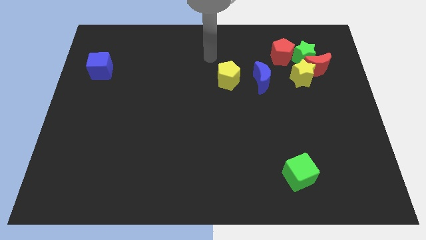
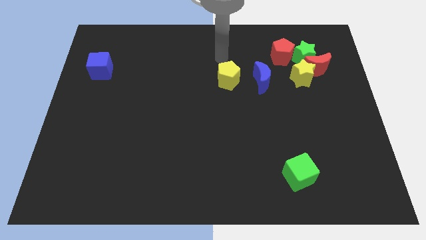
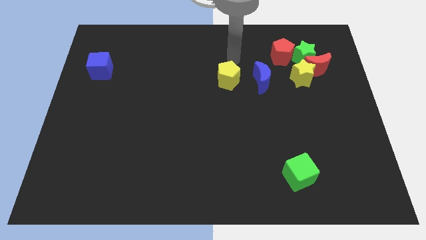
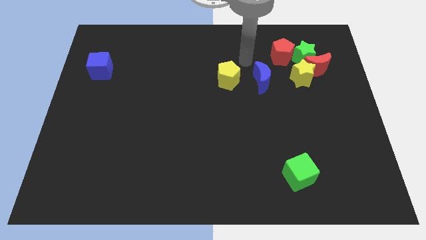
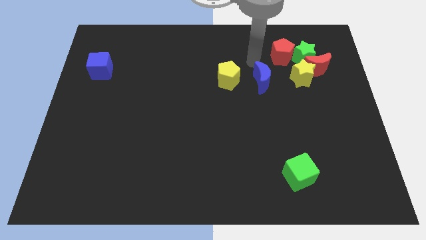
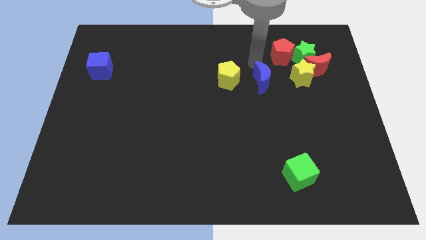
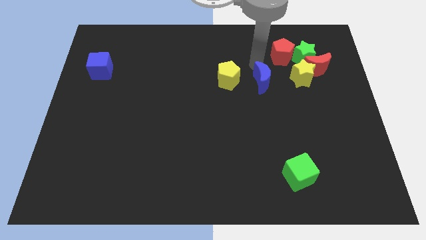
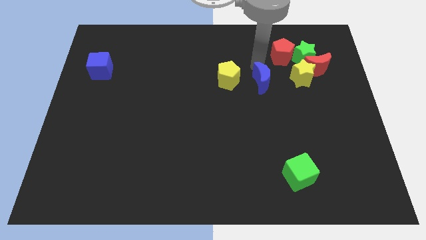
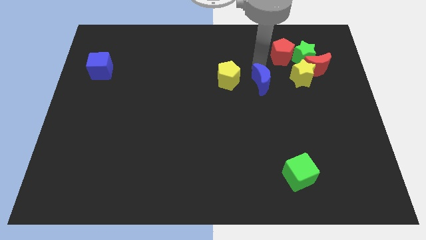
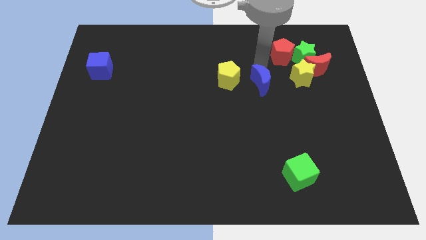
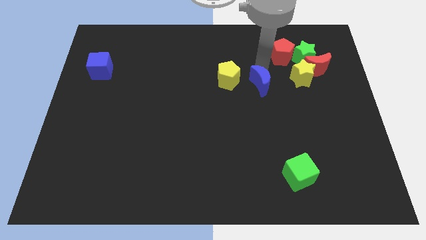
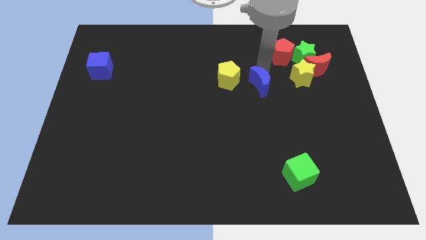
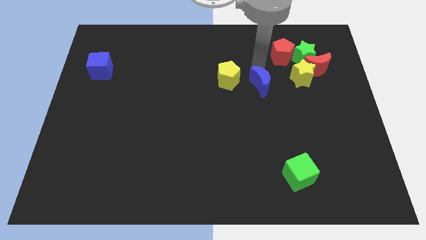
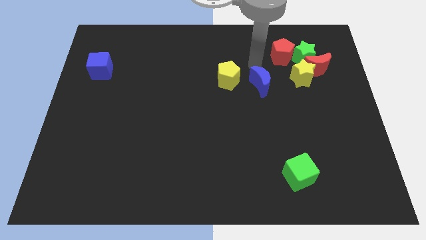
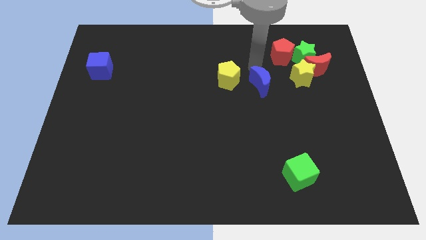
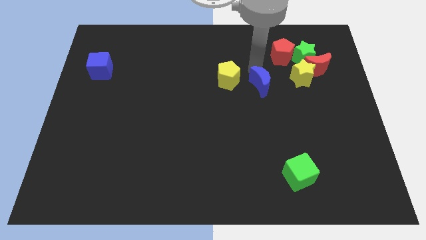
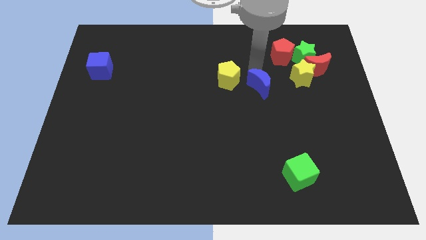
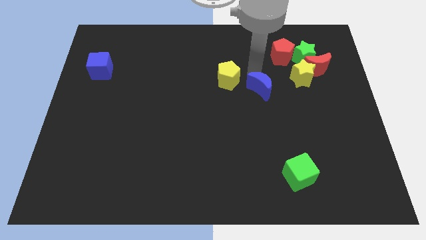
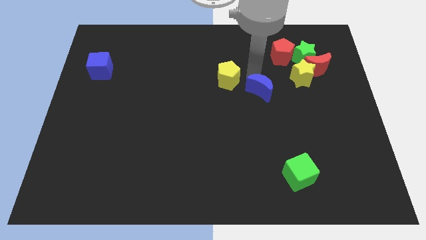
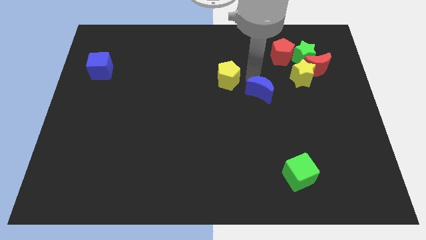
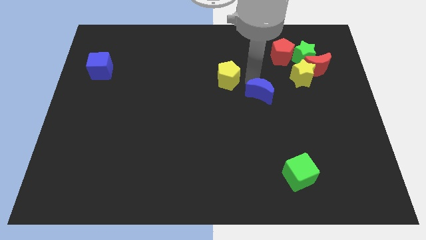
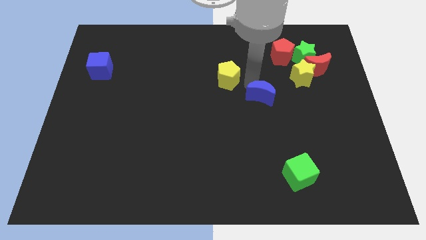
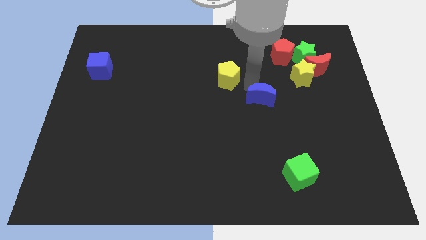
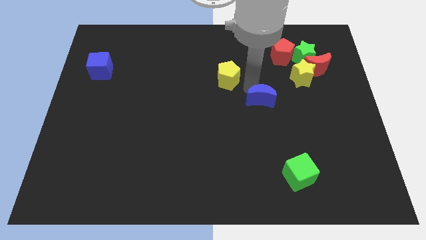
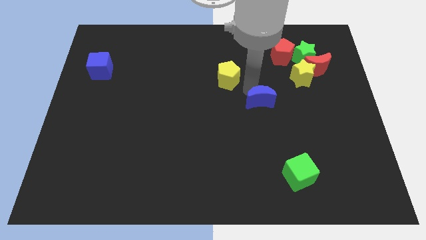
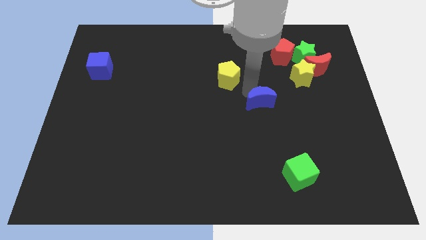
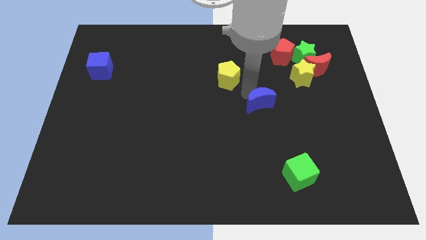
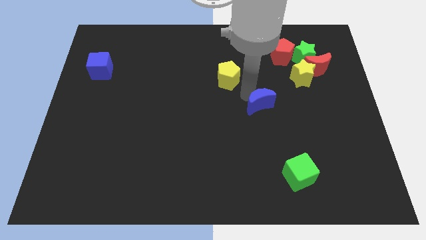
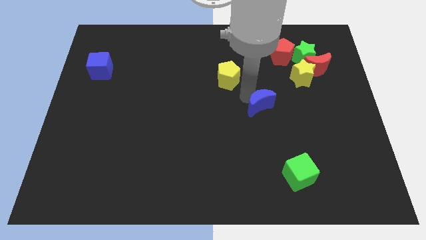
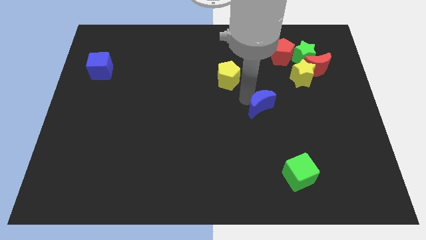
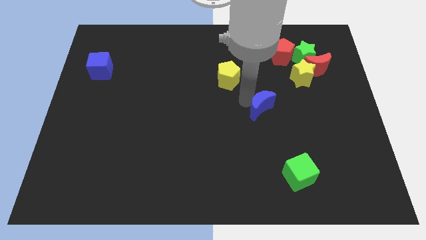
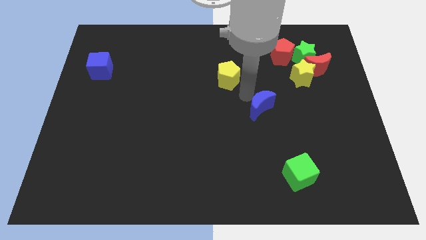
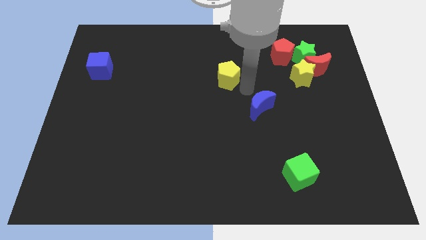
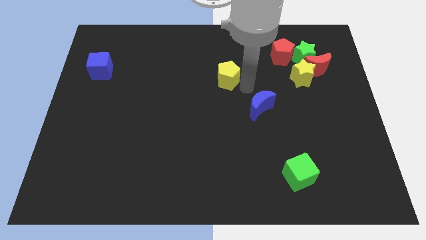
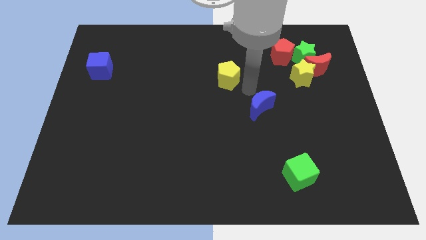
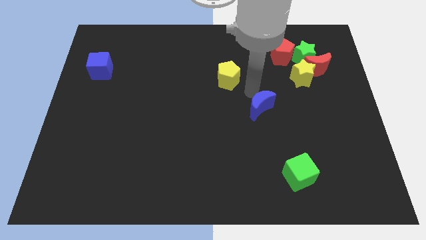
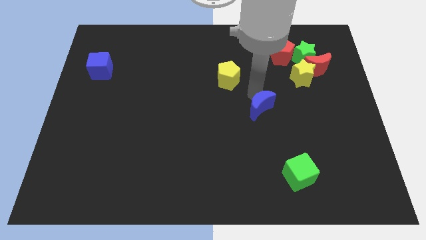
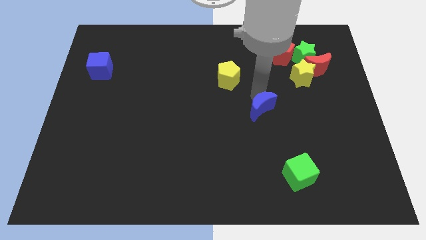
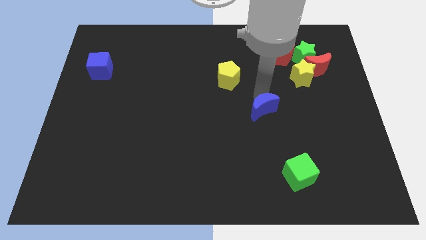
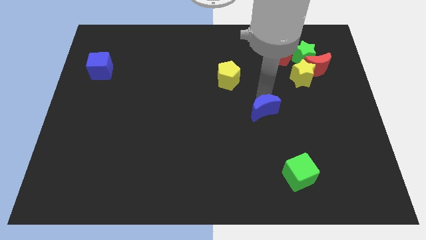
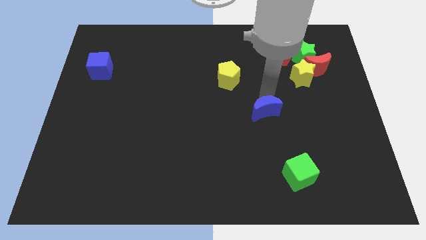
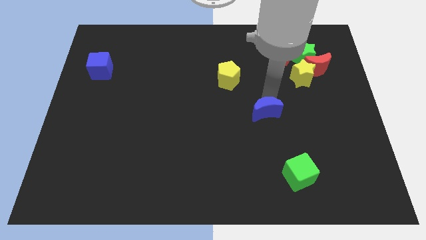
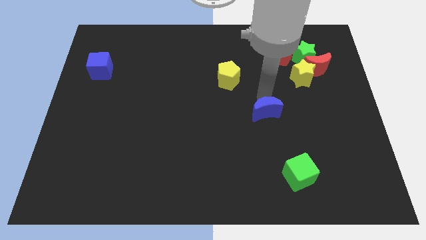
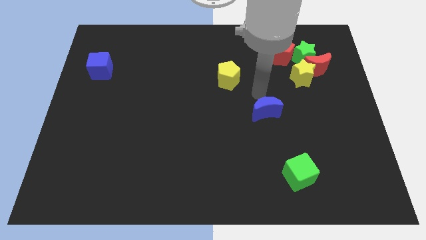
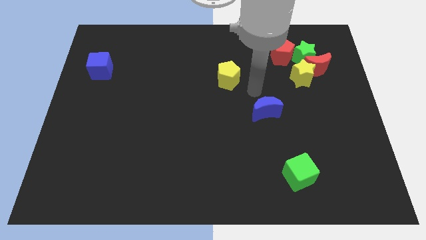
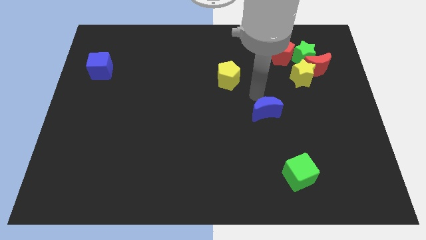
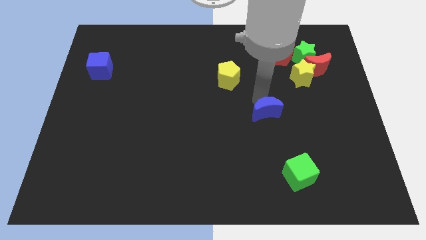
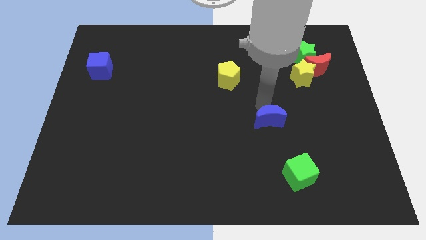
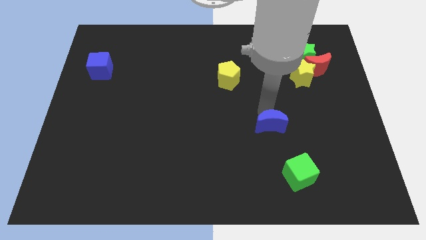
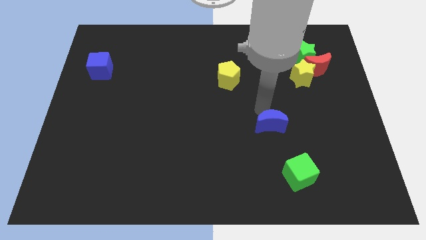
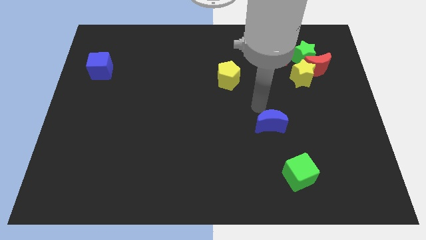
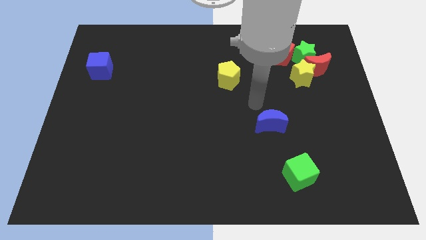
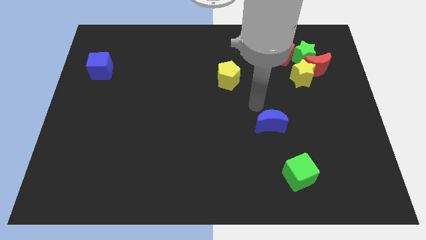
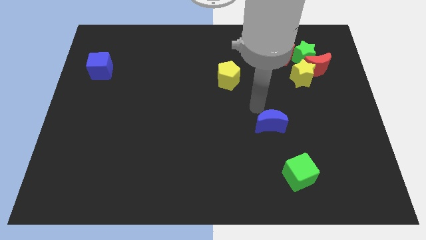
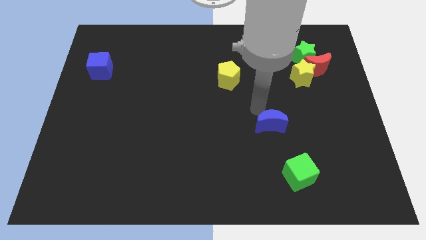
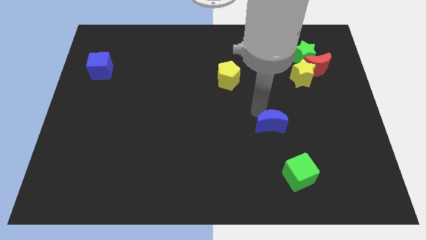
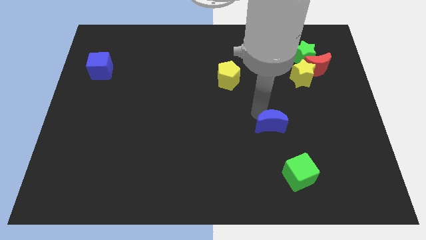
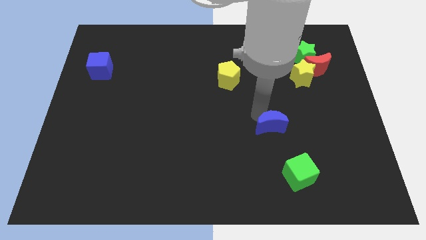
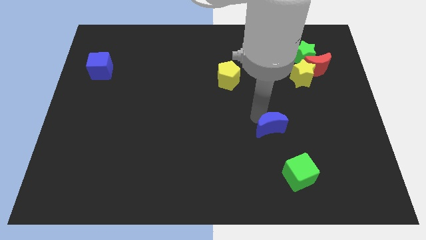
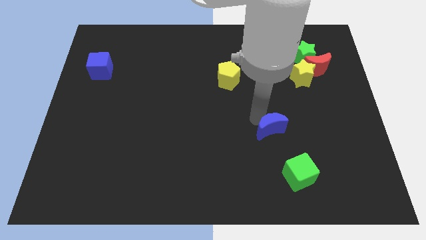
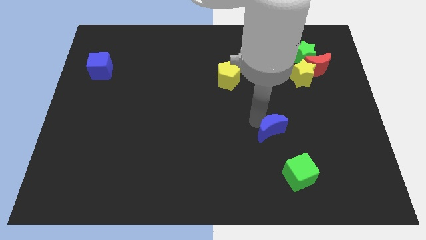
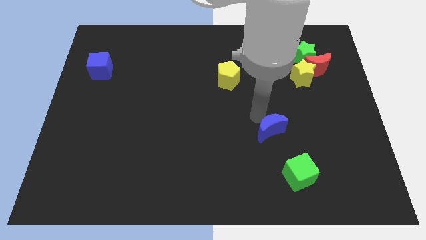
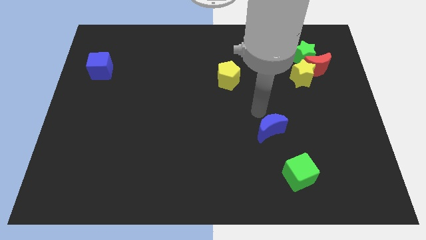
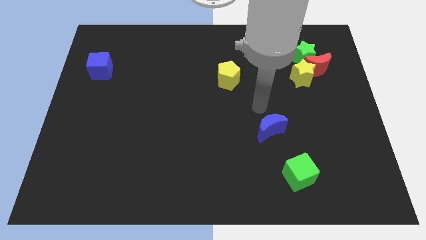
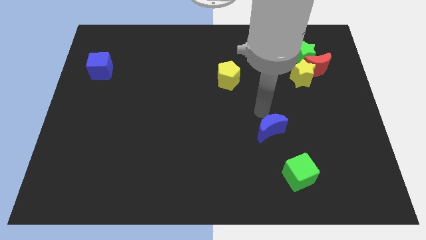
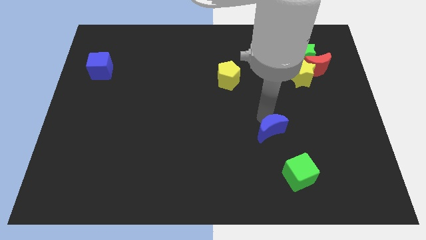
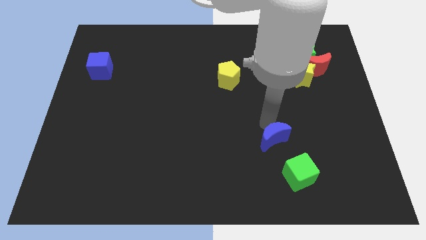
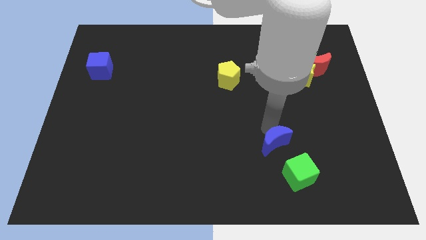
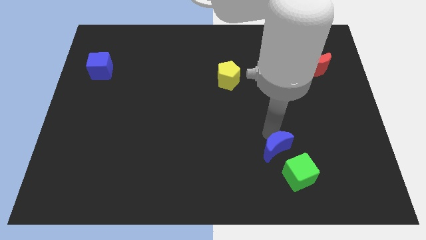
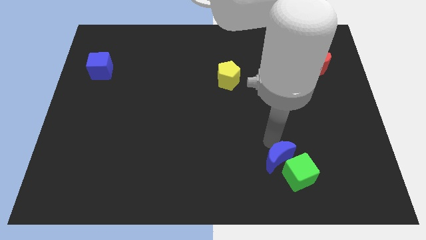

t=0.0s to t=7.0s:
slide the blue moon towards the green cube

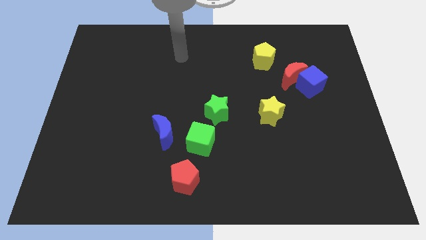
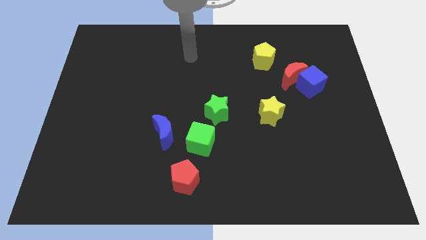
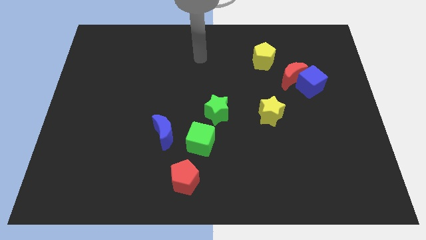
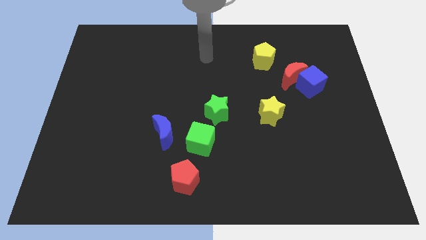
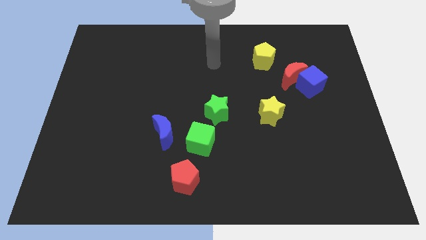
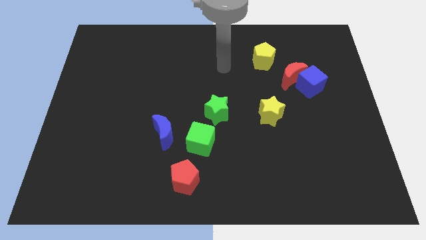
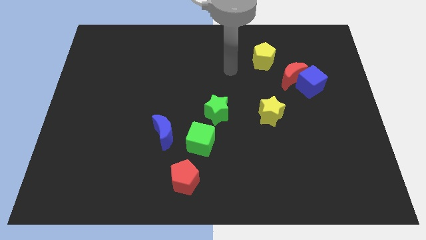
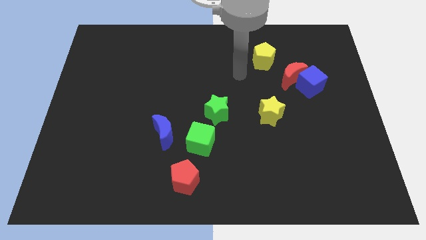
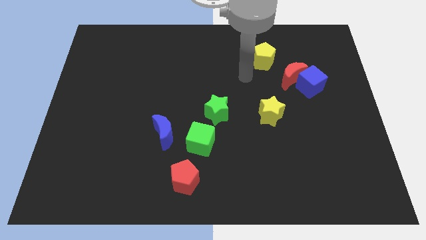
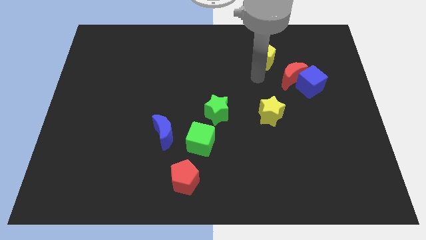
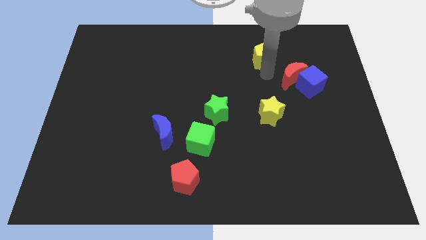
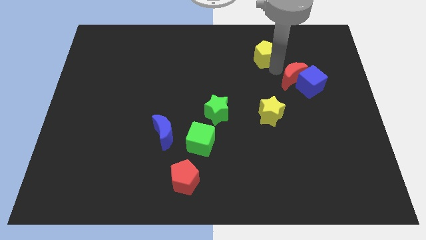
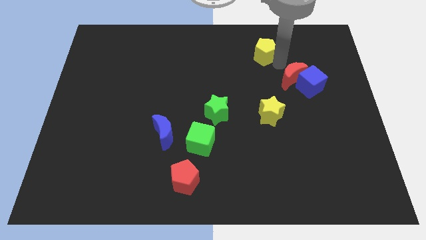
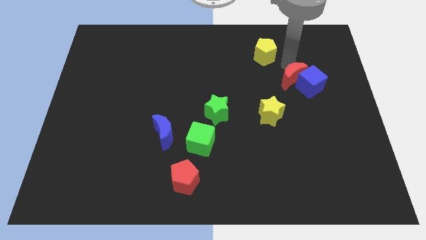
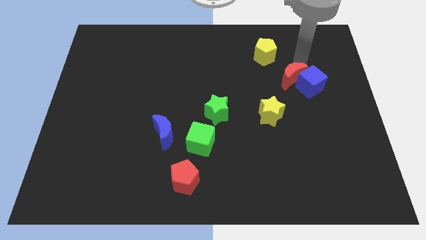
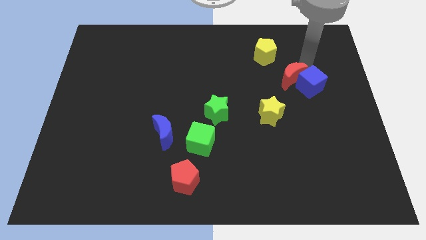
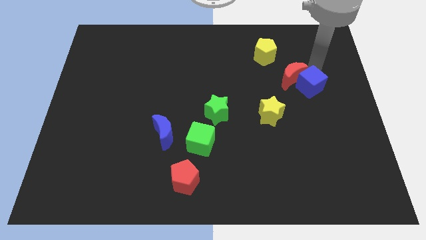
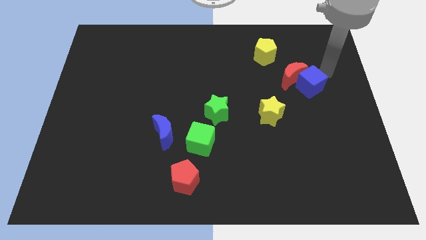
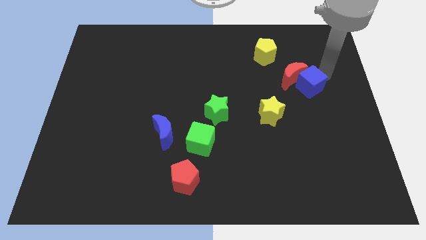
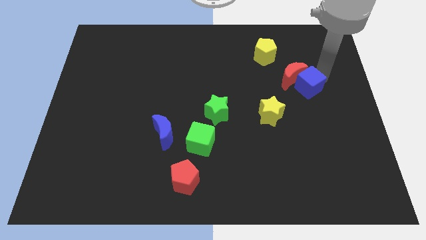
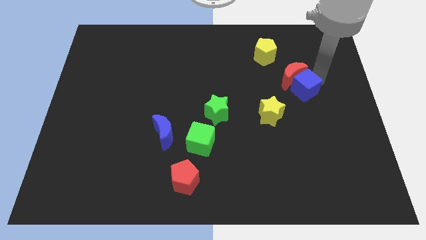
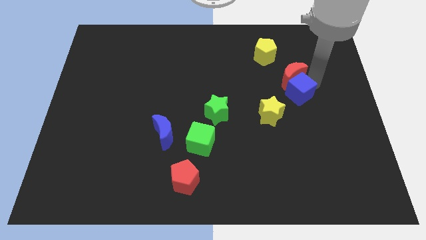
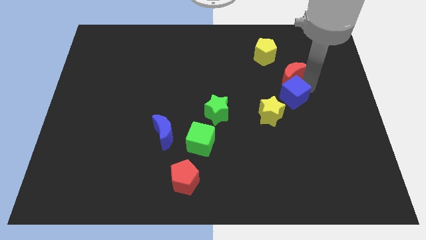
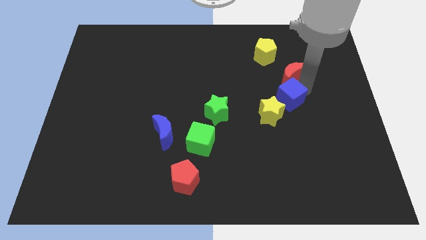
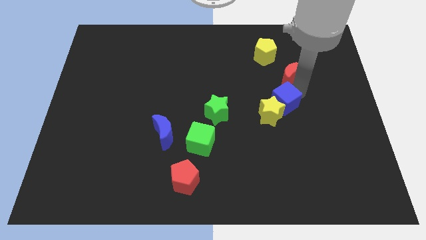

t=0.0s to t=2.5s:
slide the blue cube close to the yellow star
